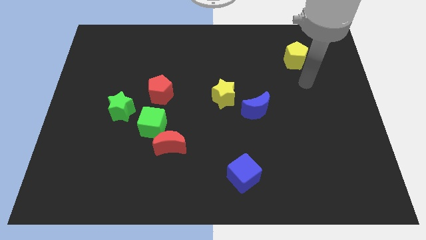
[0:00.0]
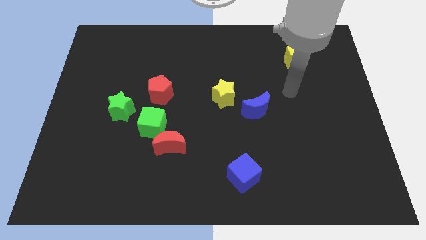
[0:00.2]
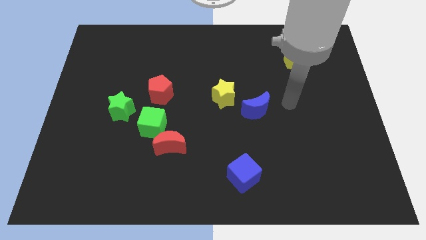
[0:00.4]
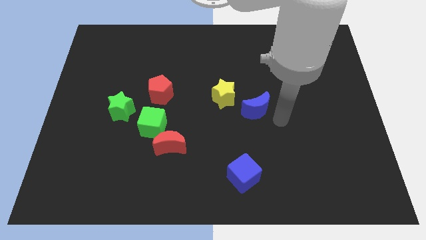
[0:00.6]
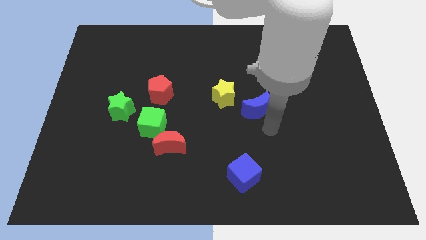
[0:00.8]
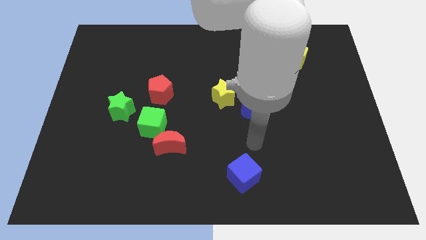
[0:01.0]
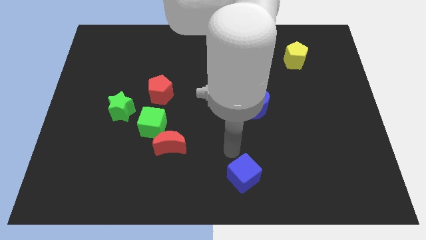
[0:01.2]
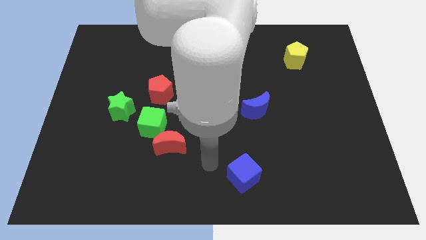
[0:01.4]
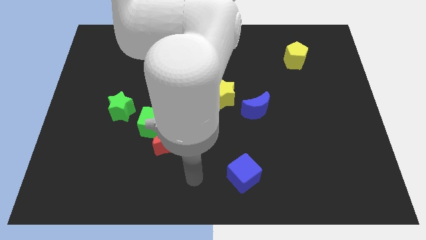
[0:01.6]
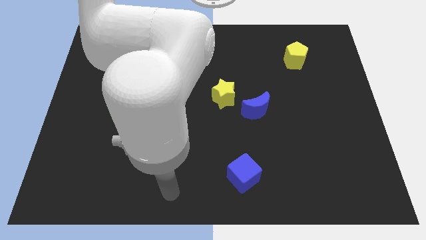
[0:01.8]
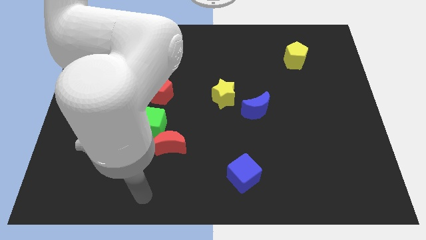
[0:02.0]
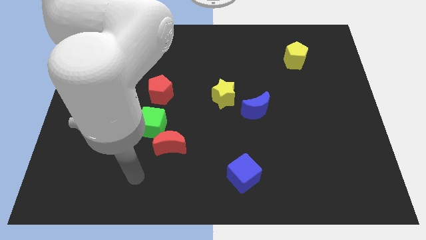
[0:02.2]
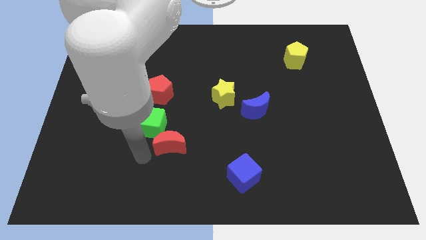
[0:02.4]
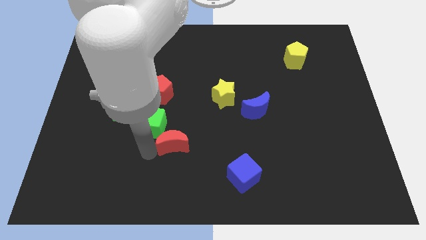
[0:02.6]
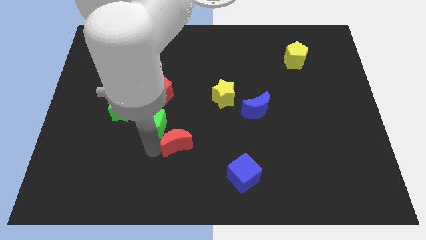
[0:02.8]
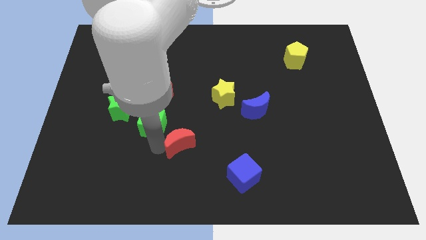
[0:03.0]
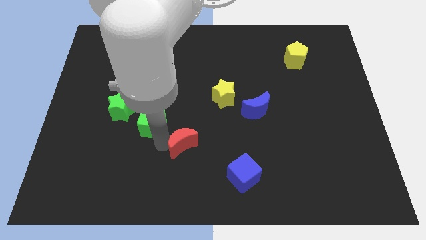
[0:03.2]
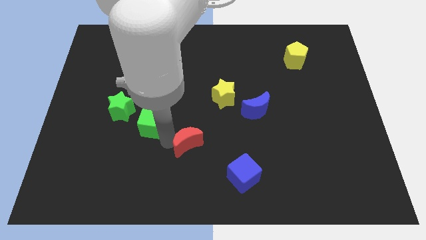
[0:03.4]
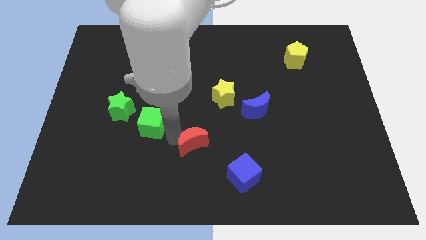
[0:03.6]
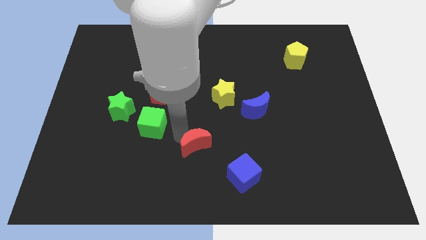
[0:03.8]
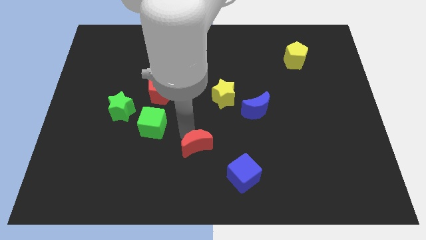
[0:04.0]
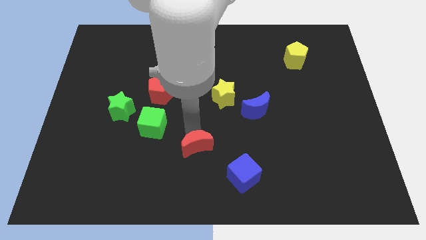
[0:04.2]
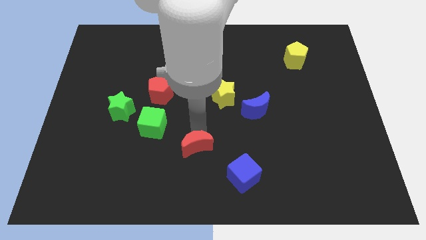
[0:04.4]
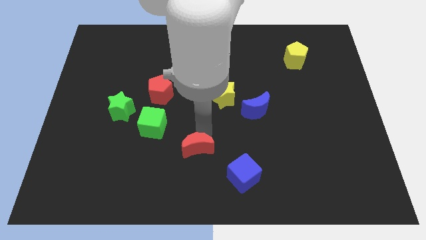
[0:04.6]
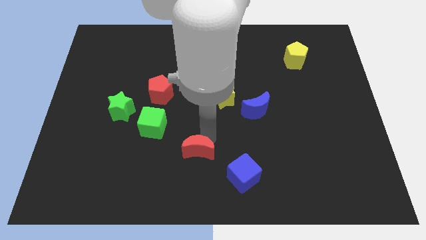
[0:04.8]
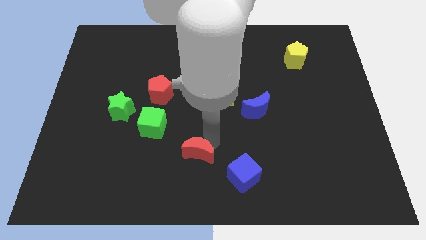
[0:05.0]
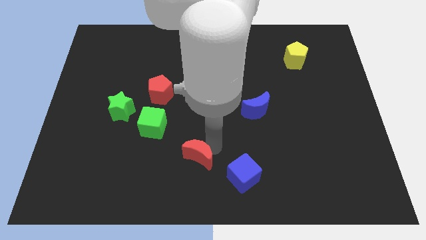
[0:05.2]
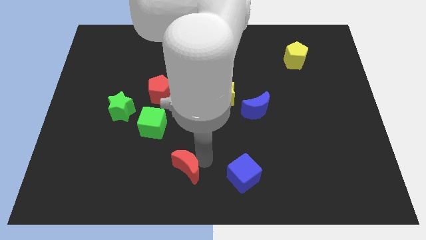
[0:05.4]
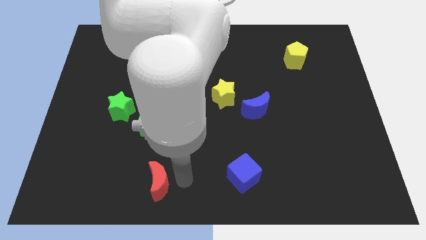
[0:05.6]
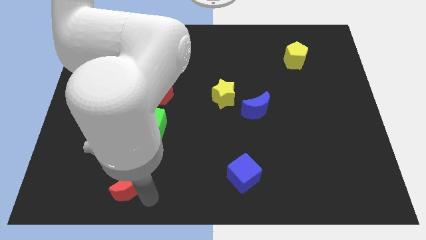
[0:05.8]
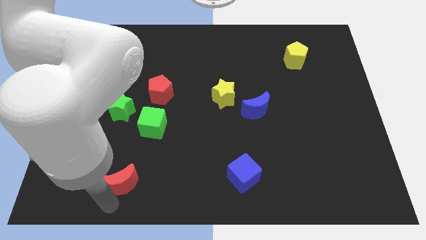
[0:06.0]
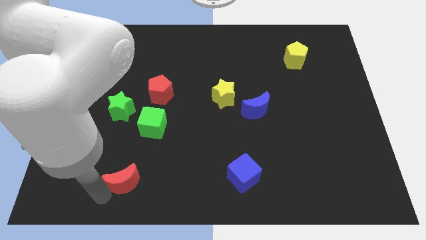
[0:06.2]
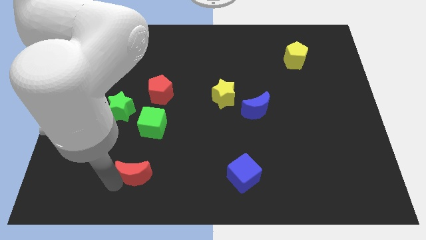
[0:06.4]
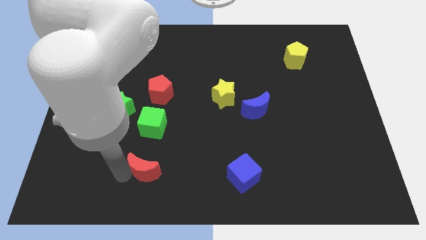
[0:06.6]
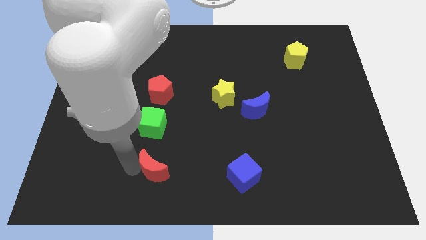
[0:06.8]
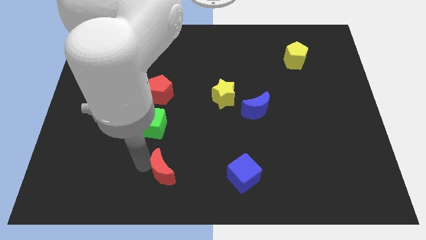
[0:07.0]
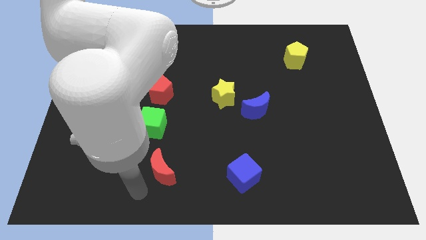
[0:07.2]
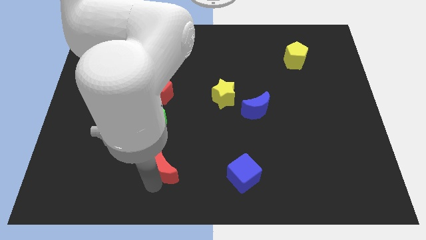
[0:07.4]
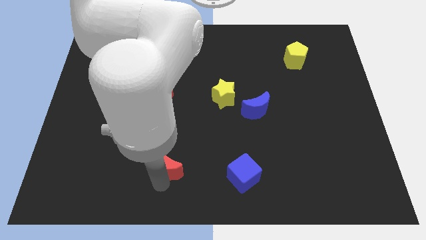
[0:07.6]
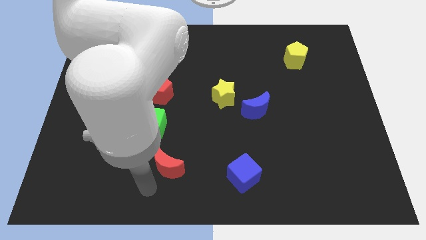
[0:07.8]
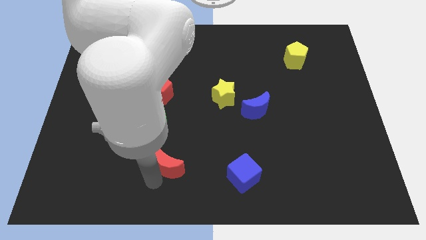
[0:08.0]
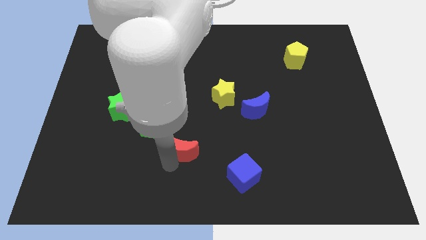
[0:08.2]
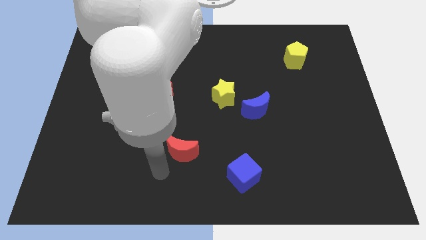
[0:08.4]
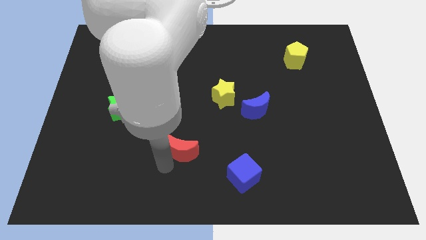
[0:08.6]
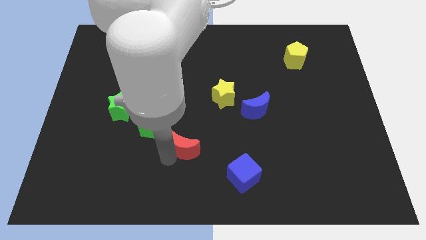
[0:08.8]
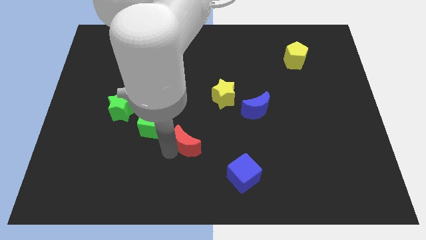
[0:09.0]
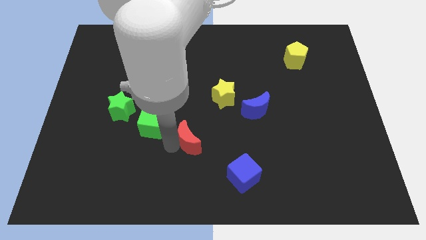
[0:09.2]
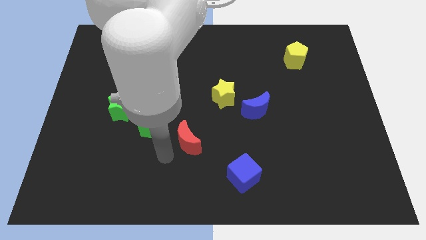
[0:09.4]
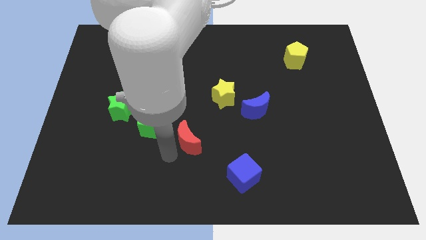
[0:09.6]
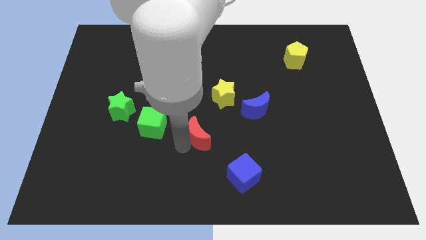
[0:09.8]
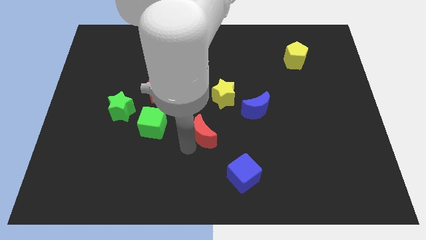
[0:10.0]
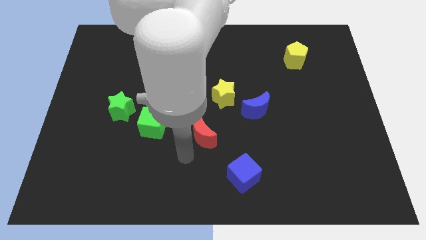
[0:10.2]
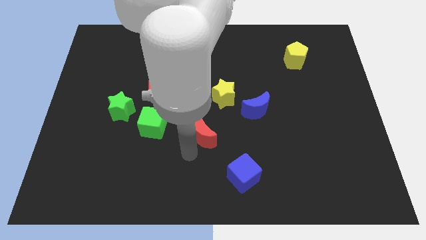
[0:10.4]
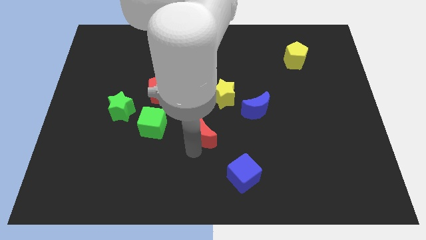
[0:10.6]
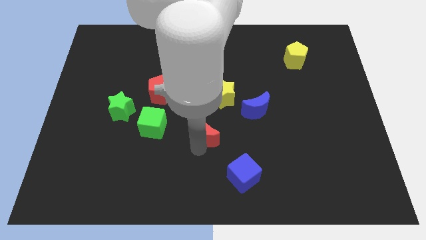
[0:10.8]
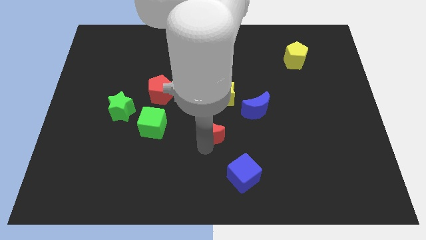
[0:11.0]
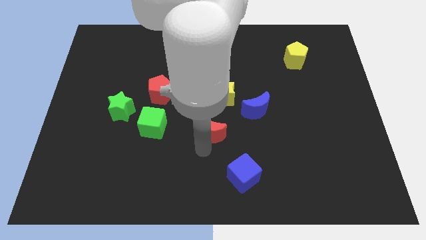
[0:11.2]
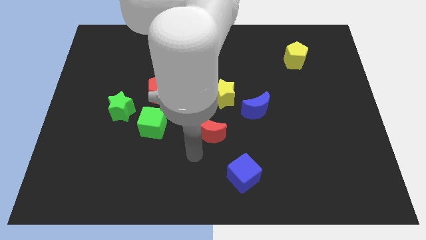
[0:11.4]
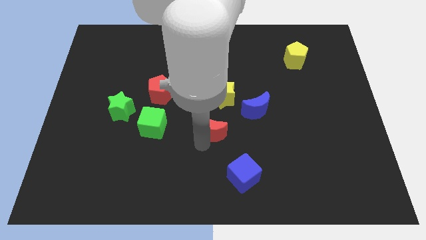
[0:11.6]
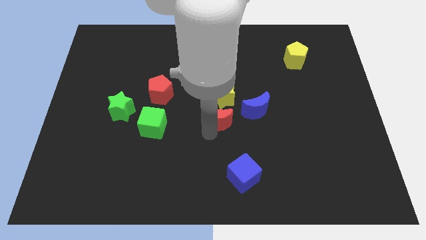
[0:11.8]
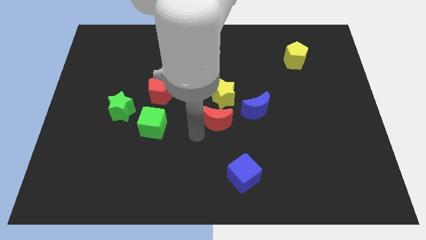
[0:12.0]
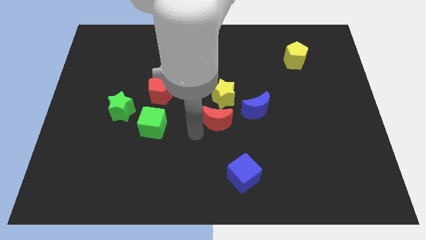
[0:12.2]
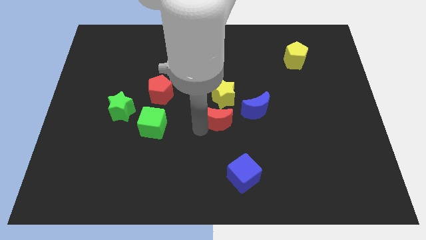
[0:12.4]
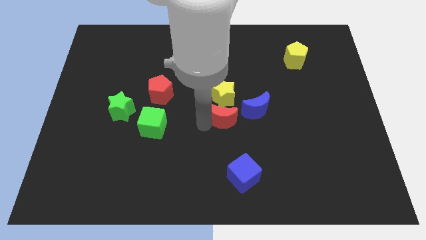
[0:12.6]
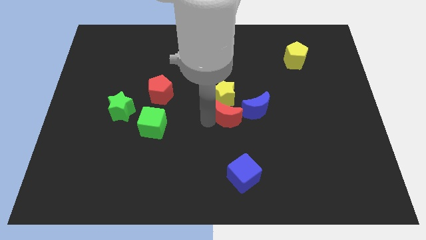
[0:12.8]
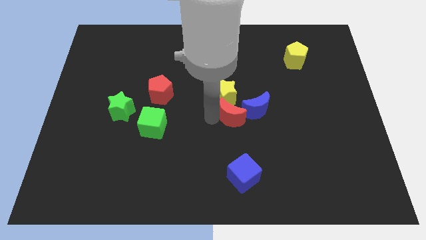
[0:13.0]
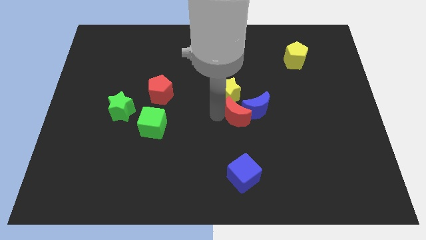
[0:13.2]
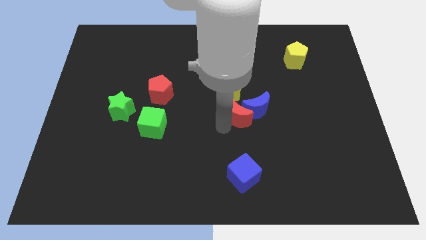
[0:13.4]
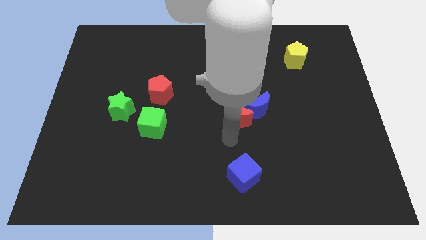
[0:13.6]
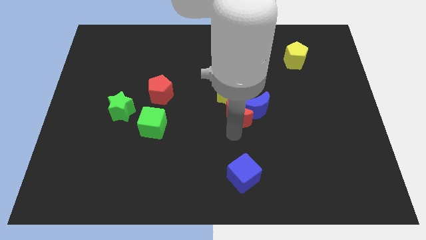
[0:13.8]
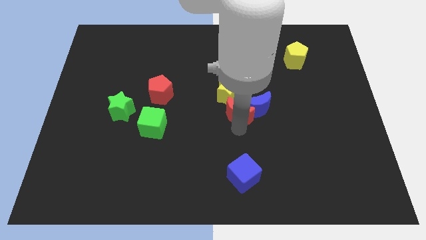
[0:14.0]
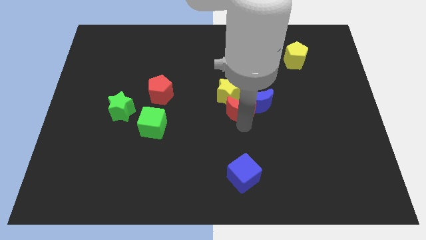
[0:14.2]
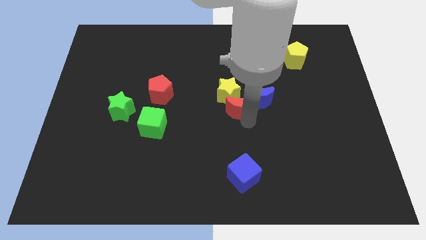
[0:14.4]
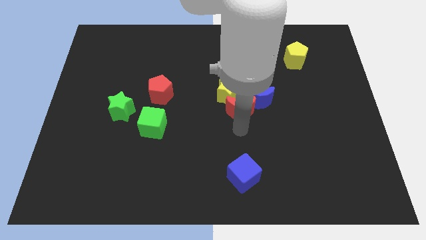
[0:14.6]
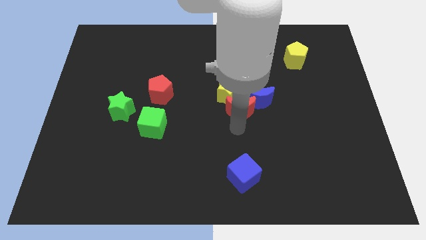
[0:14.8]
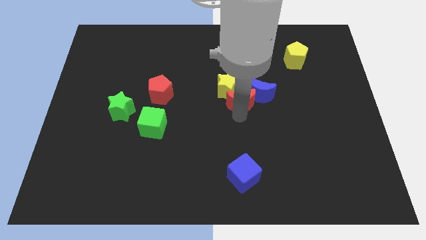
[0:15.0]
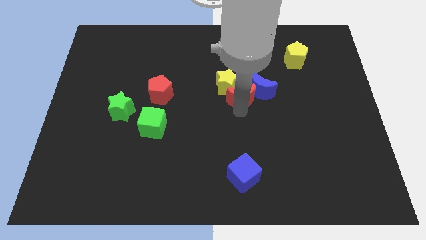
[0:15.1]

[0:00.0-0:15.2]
move the red moon upwards and right diagonally

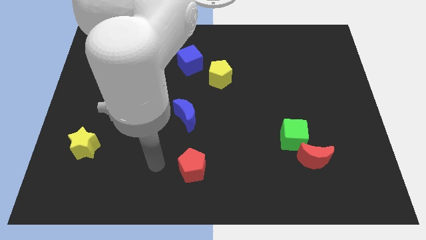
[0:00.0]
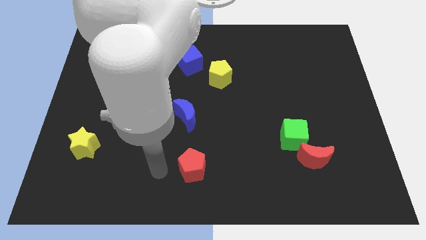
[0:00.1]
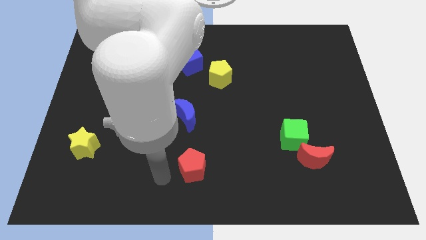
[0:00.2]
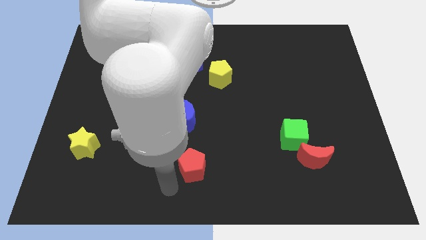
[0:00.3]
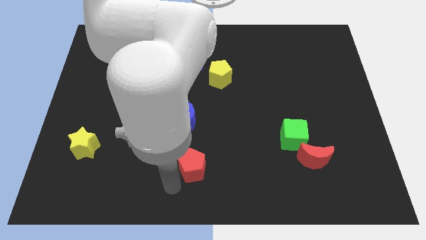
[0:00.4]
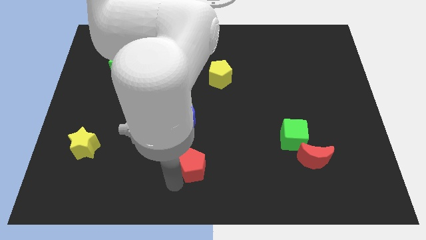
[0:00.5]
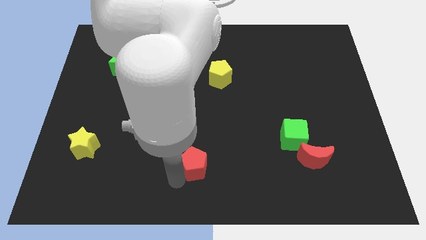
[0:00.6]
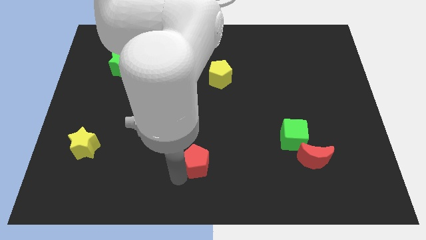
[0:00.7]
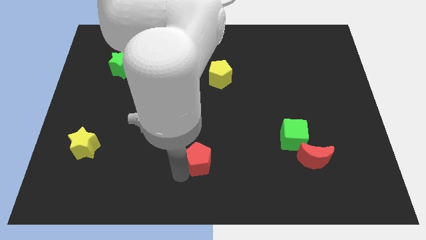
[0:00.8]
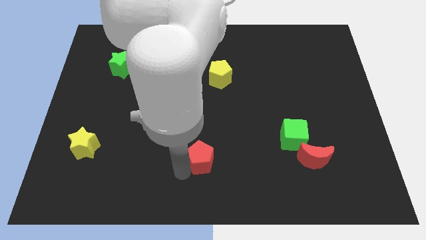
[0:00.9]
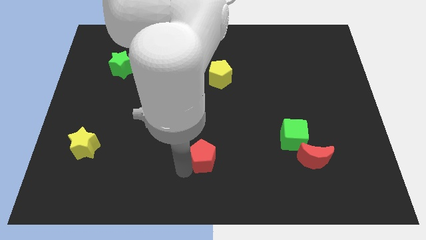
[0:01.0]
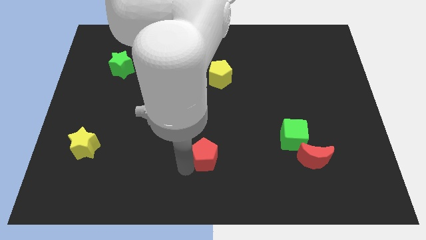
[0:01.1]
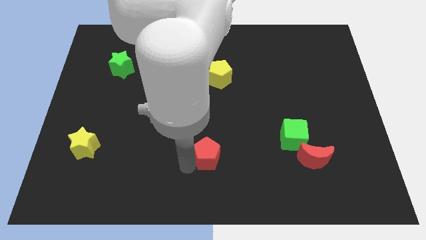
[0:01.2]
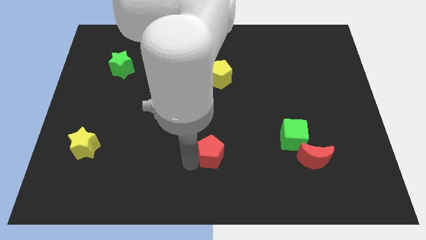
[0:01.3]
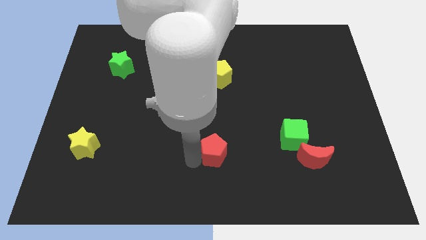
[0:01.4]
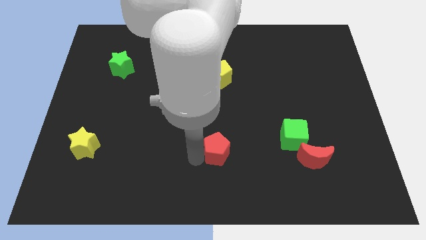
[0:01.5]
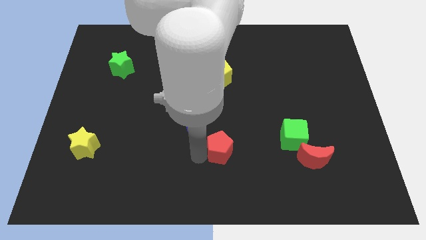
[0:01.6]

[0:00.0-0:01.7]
move the red pentagon a bit up and to the right
